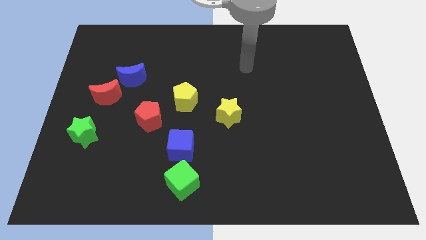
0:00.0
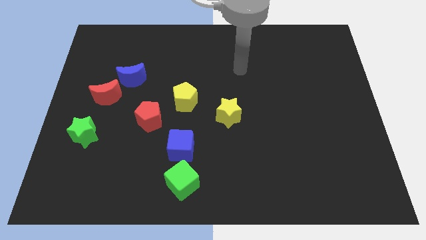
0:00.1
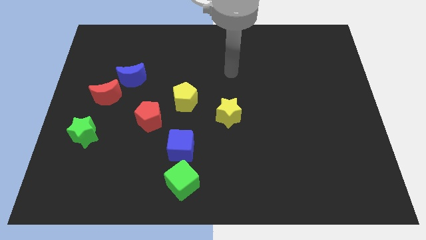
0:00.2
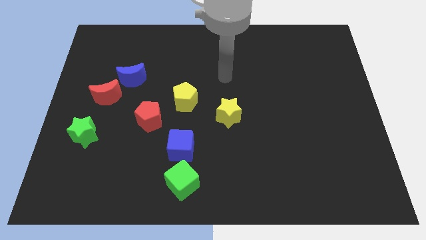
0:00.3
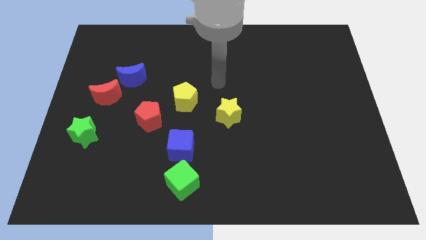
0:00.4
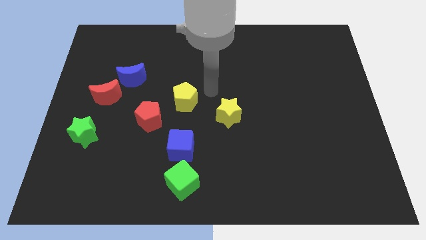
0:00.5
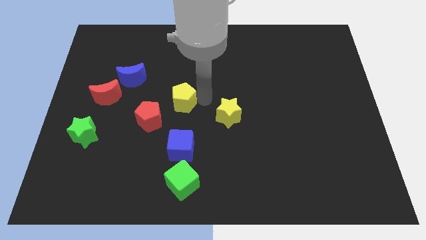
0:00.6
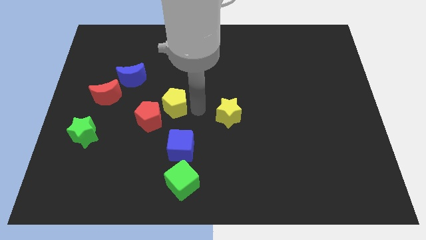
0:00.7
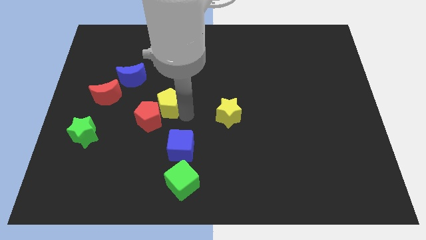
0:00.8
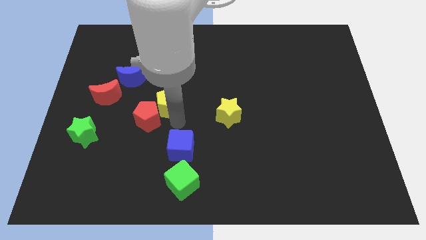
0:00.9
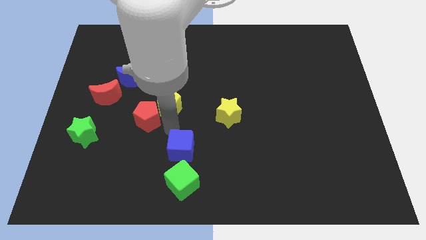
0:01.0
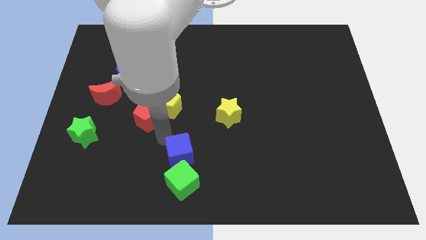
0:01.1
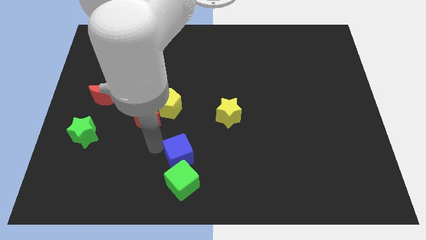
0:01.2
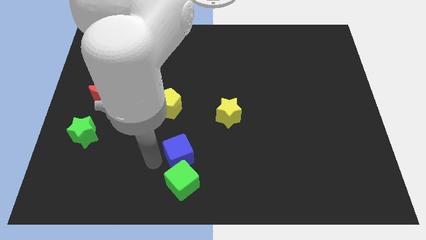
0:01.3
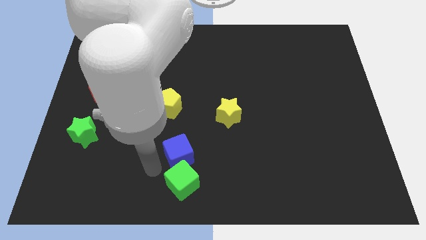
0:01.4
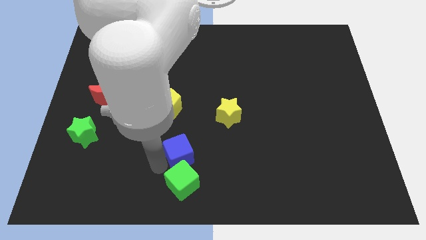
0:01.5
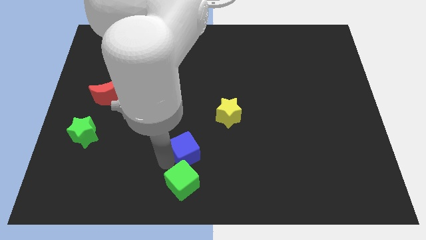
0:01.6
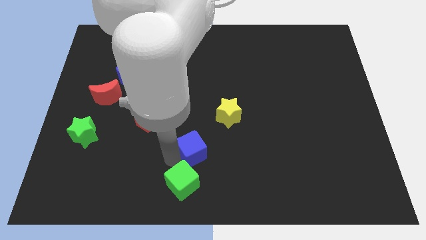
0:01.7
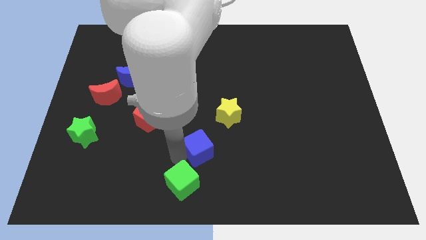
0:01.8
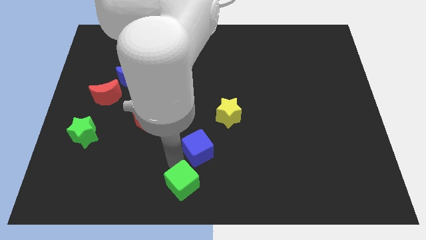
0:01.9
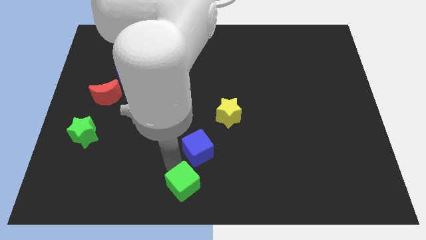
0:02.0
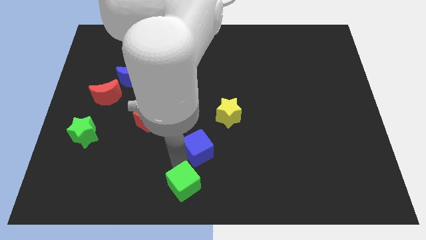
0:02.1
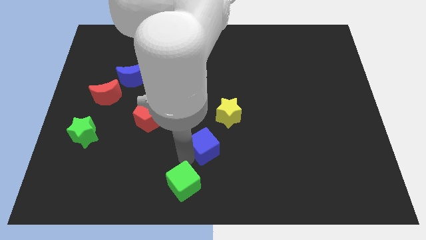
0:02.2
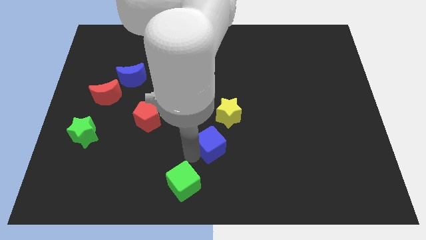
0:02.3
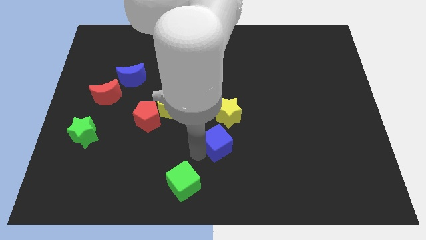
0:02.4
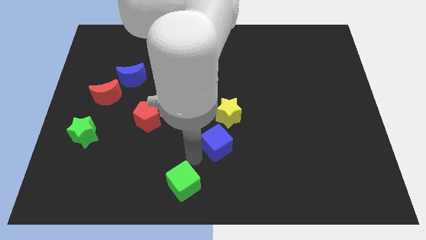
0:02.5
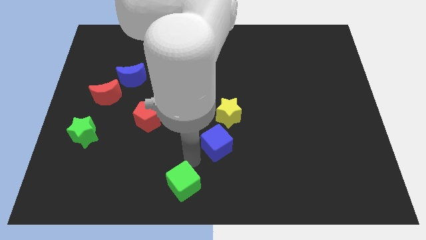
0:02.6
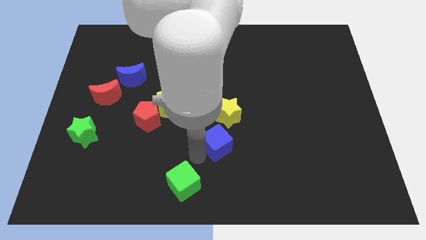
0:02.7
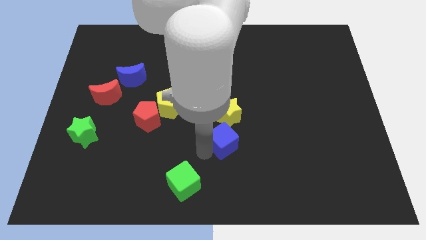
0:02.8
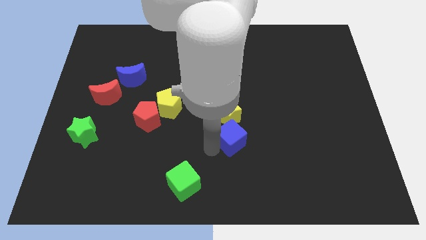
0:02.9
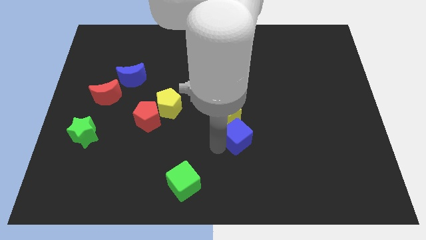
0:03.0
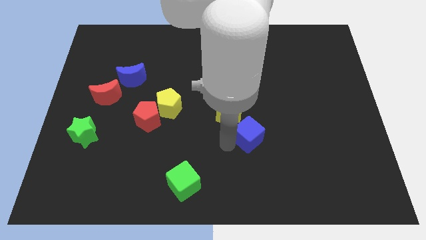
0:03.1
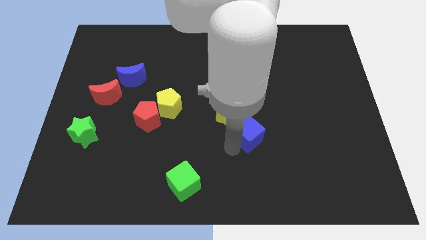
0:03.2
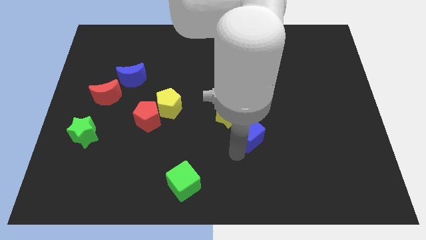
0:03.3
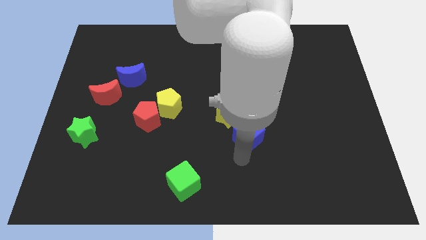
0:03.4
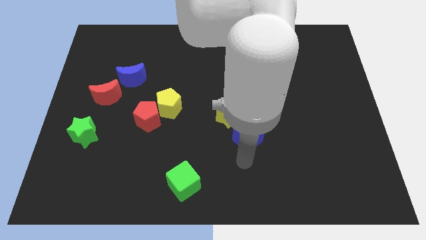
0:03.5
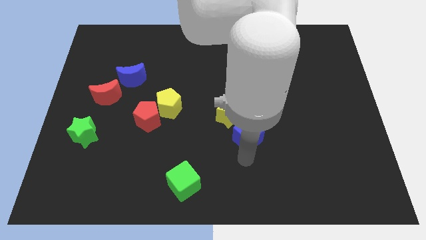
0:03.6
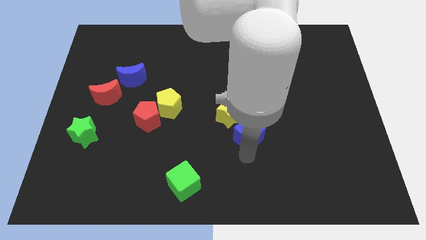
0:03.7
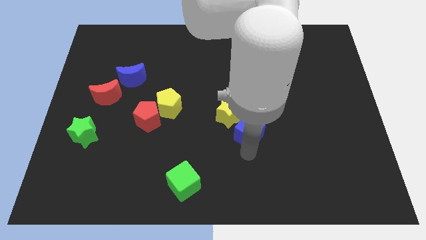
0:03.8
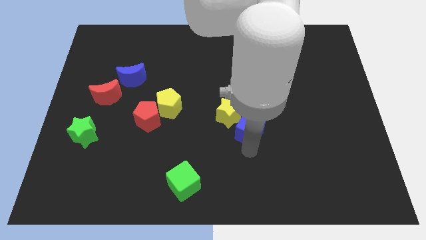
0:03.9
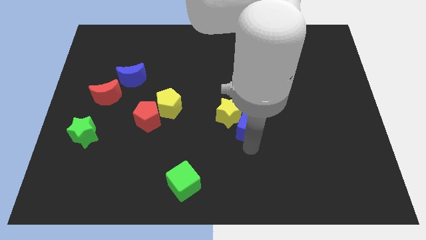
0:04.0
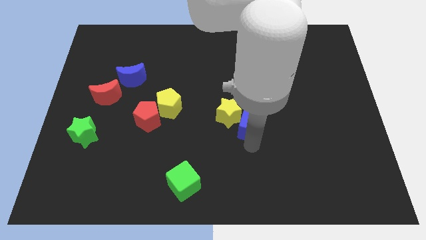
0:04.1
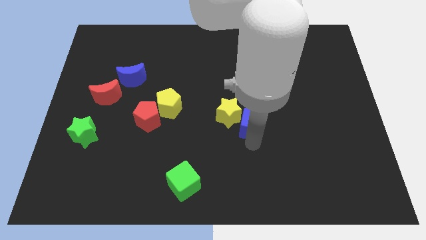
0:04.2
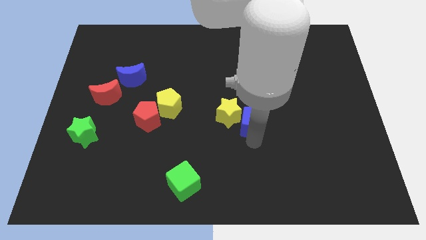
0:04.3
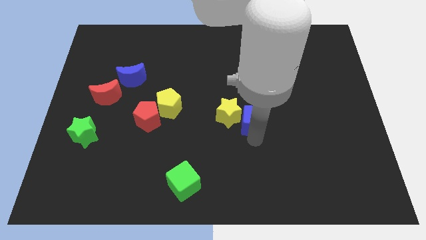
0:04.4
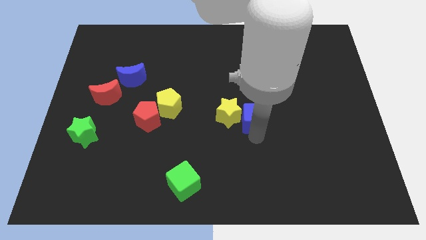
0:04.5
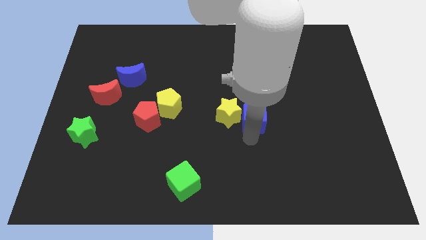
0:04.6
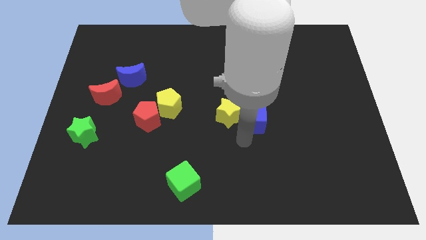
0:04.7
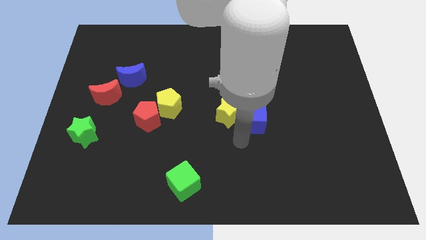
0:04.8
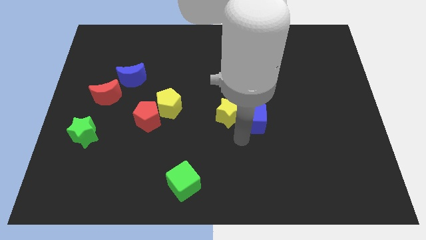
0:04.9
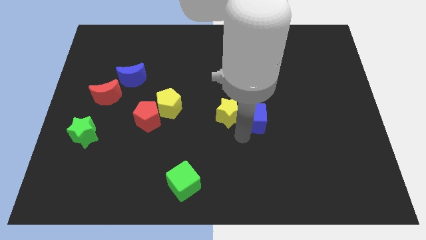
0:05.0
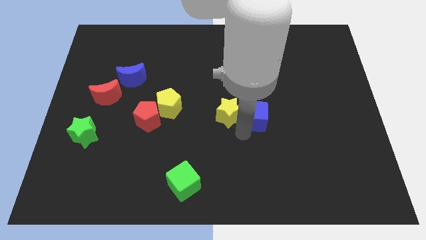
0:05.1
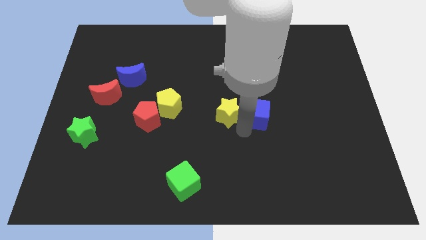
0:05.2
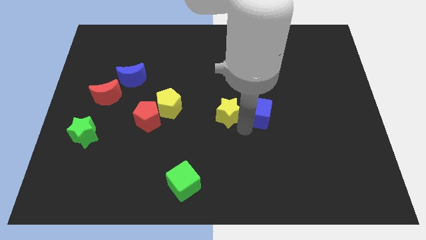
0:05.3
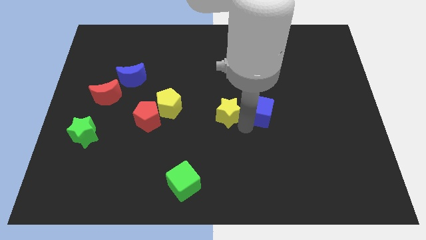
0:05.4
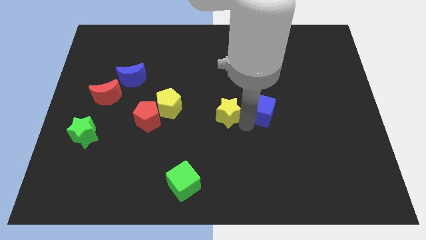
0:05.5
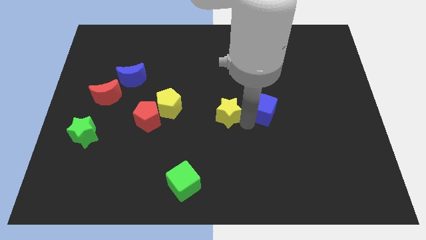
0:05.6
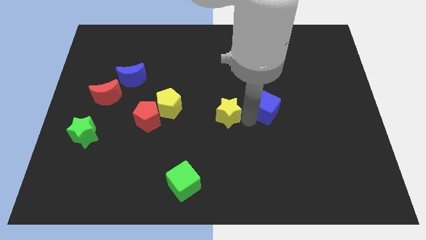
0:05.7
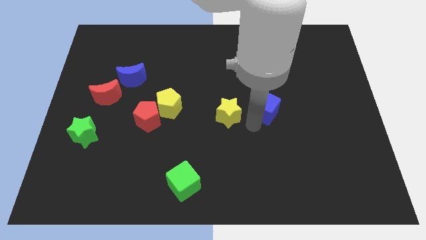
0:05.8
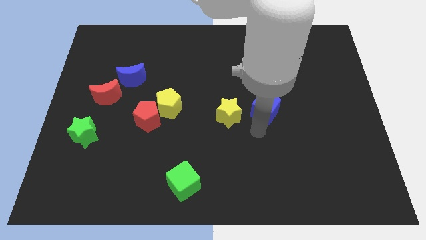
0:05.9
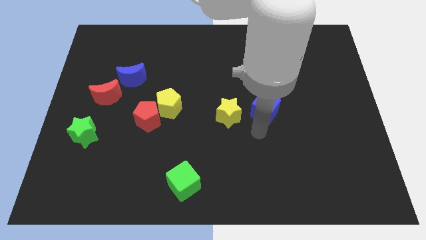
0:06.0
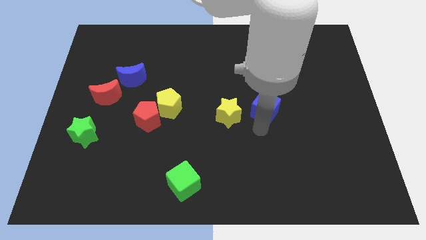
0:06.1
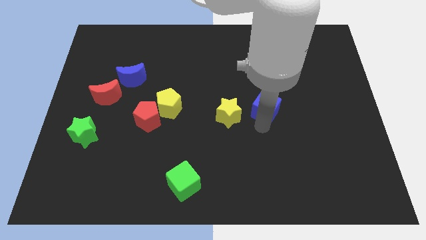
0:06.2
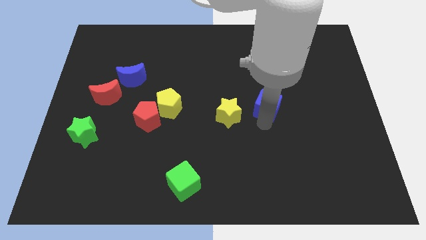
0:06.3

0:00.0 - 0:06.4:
move the blue cube up and to the right

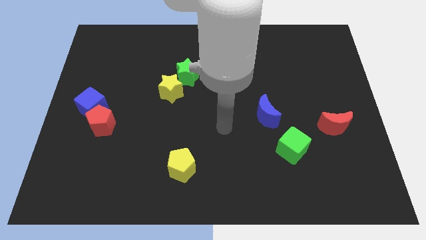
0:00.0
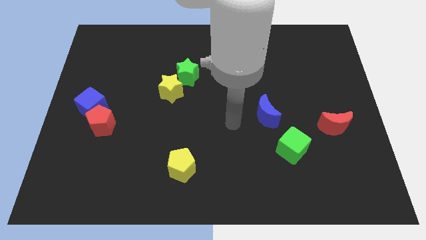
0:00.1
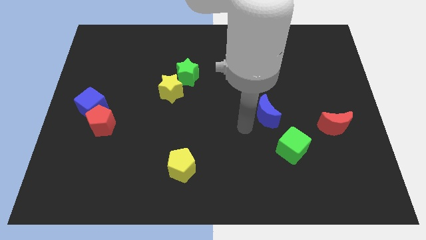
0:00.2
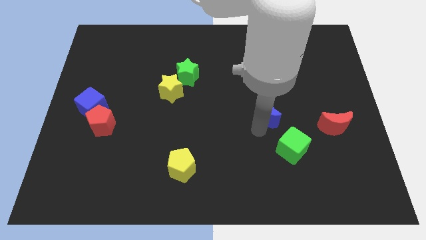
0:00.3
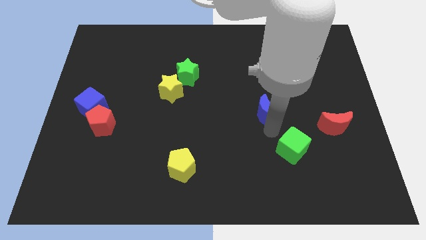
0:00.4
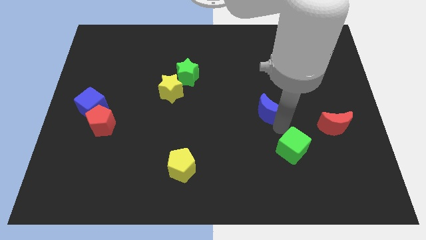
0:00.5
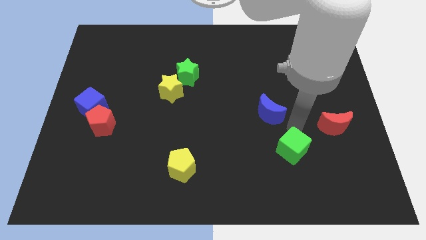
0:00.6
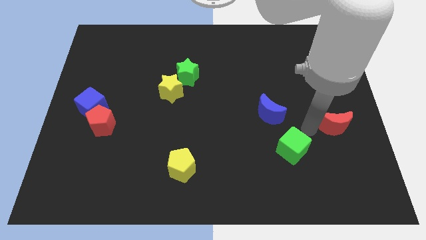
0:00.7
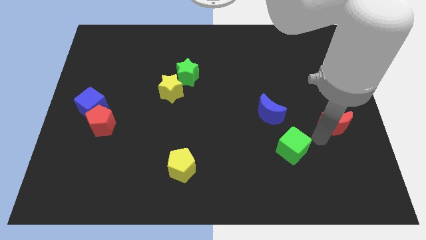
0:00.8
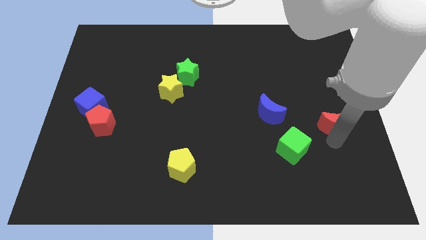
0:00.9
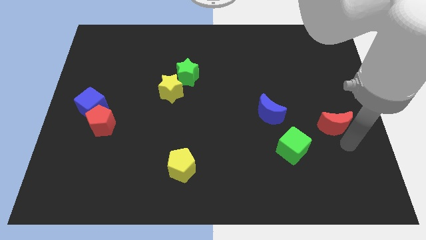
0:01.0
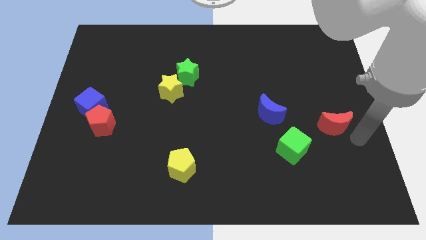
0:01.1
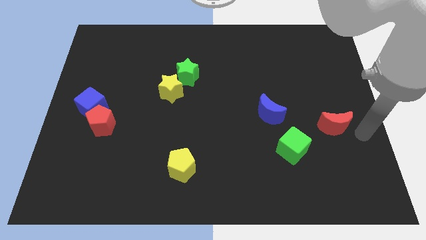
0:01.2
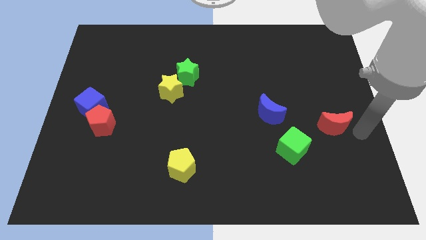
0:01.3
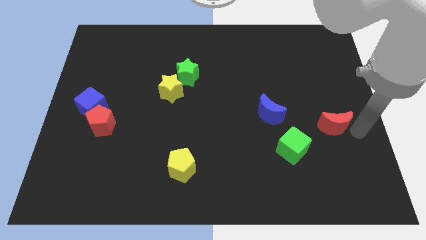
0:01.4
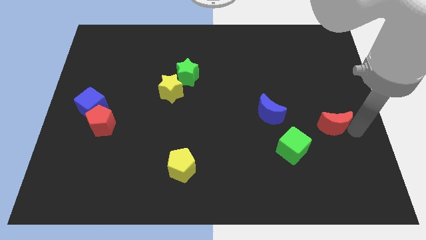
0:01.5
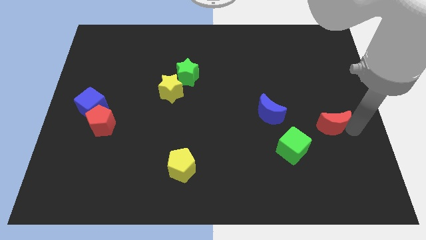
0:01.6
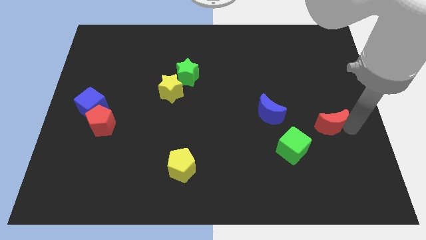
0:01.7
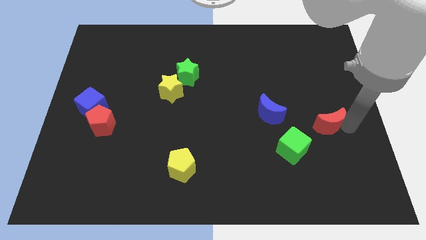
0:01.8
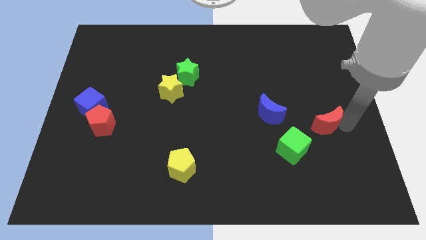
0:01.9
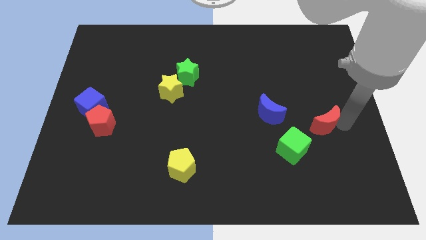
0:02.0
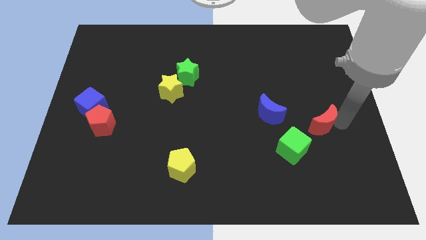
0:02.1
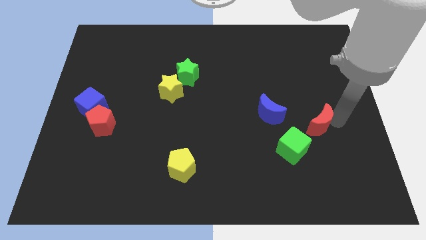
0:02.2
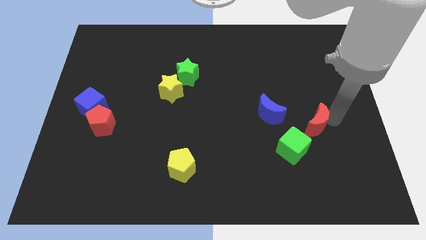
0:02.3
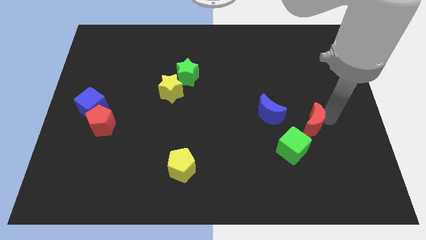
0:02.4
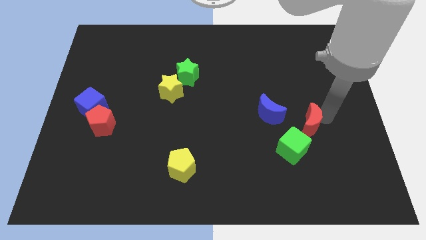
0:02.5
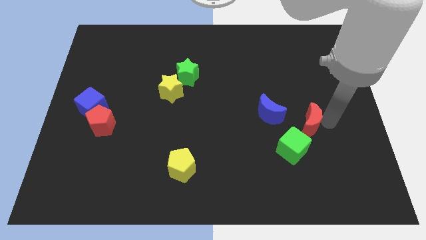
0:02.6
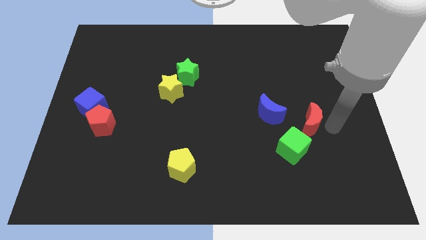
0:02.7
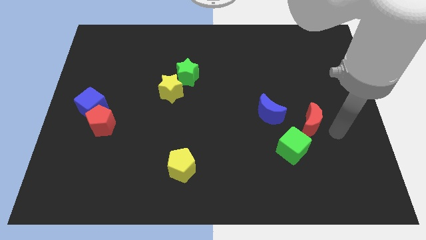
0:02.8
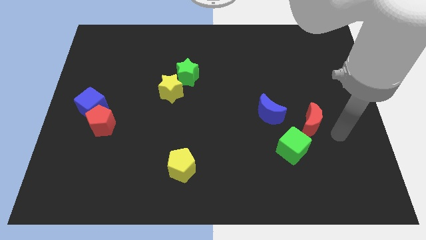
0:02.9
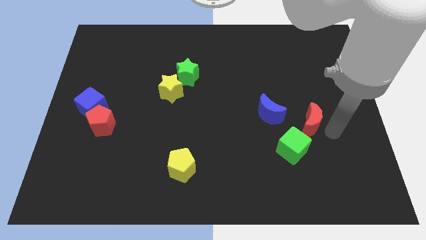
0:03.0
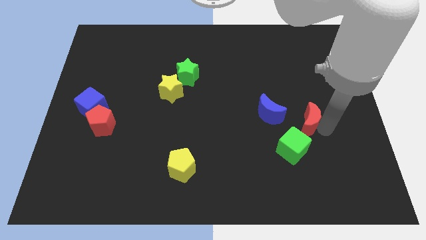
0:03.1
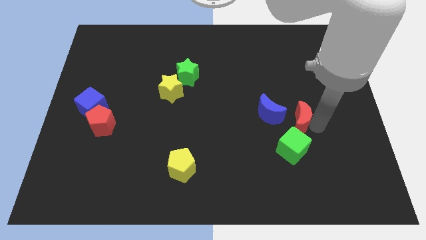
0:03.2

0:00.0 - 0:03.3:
slightly move the red moon left
